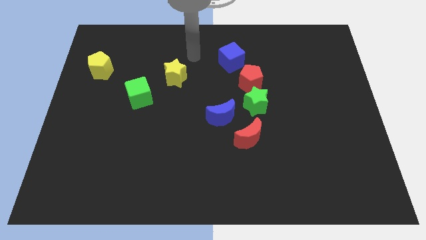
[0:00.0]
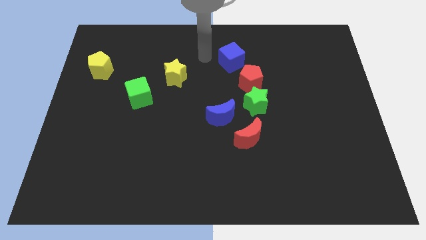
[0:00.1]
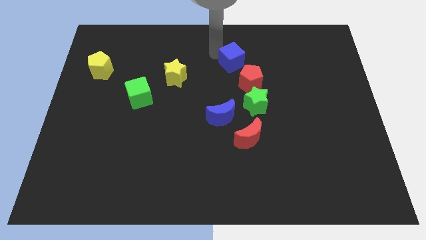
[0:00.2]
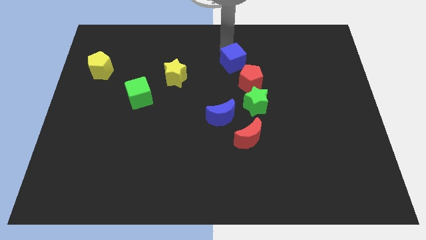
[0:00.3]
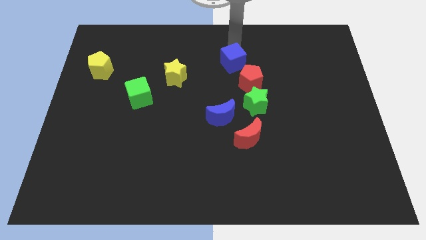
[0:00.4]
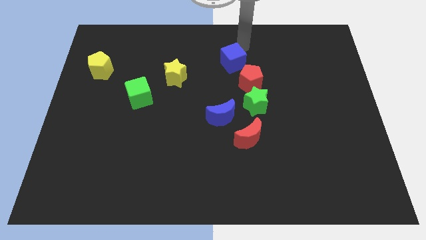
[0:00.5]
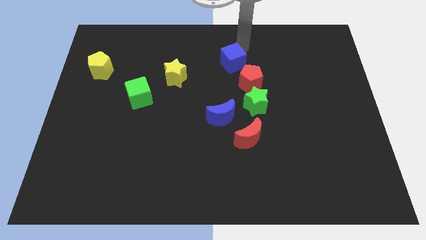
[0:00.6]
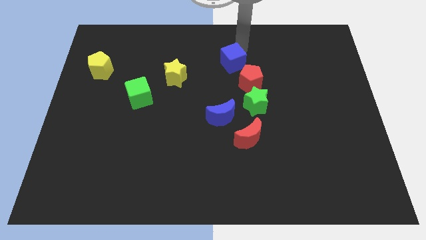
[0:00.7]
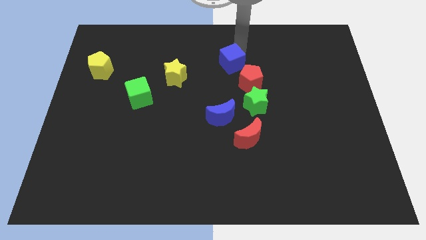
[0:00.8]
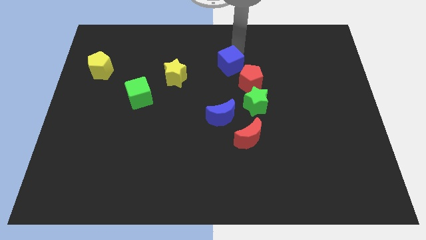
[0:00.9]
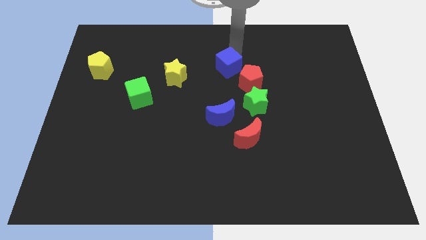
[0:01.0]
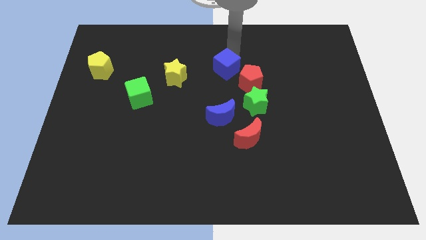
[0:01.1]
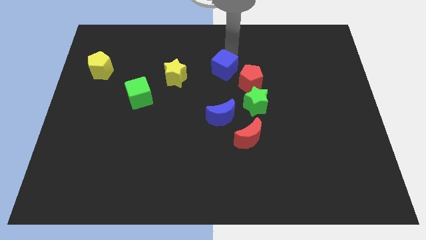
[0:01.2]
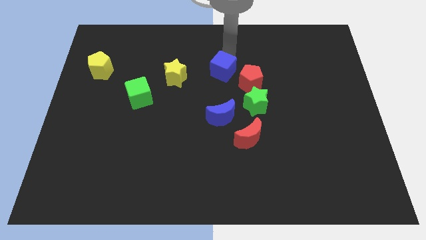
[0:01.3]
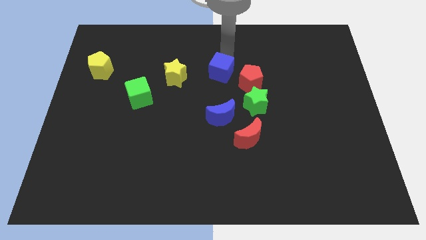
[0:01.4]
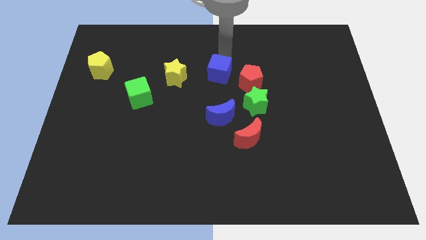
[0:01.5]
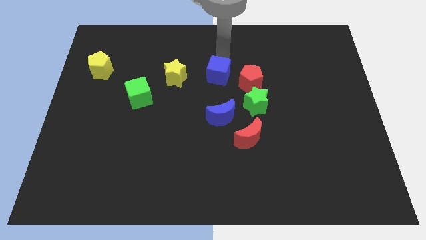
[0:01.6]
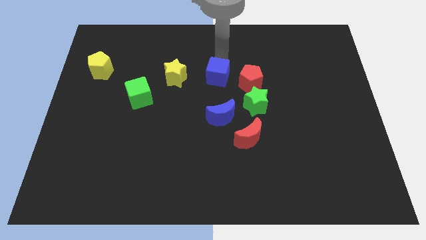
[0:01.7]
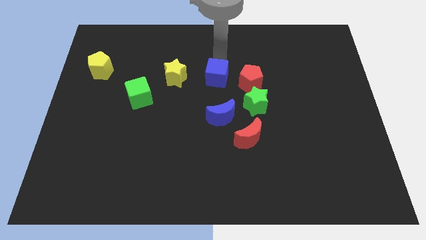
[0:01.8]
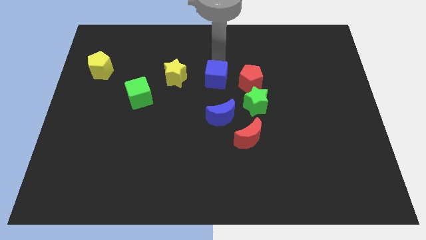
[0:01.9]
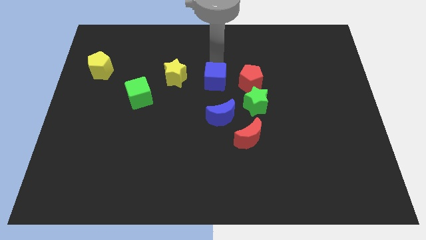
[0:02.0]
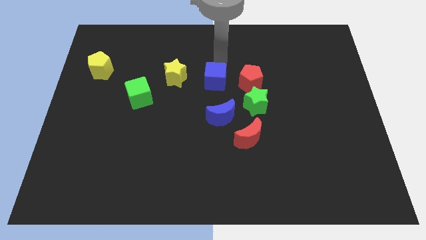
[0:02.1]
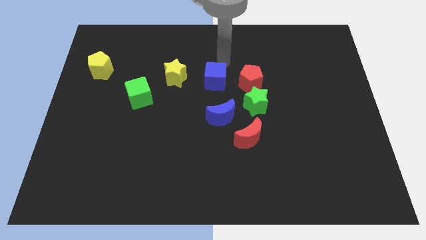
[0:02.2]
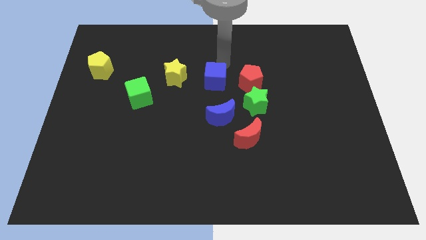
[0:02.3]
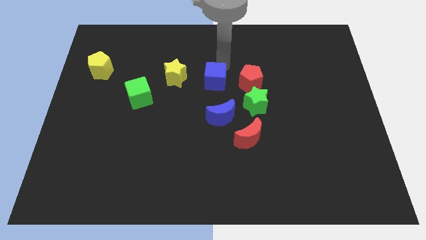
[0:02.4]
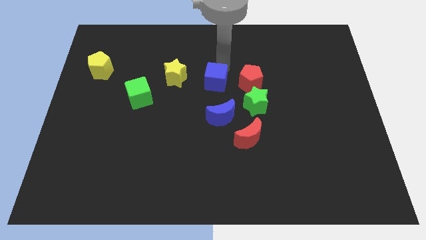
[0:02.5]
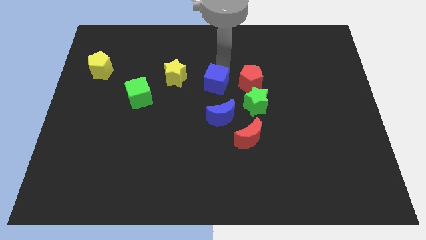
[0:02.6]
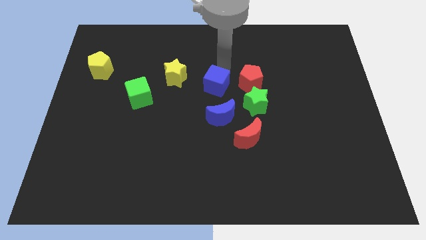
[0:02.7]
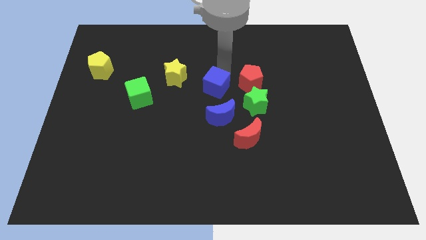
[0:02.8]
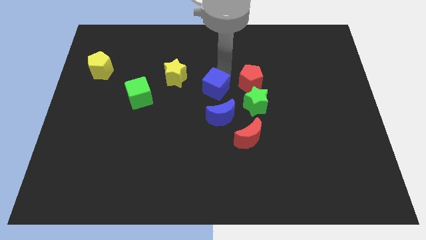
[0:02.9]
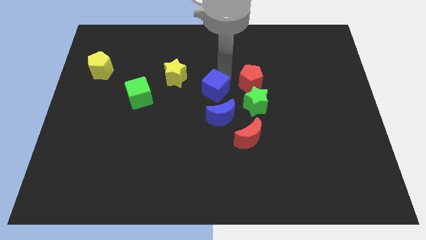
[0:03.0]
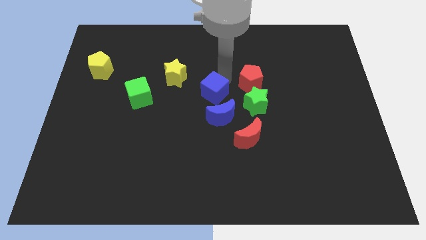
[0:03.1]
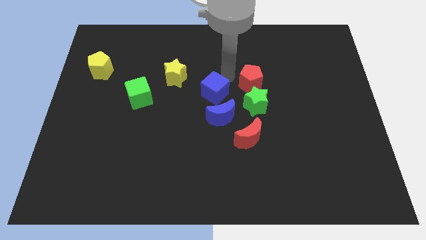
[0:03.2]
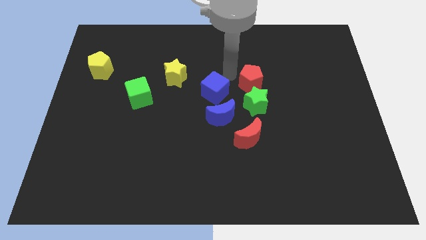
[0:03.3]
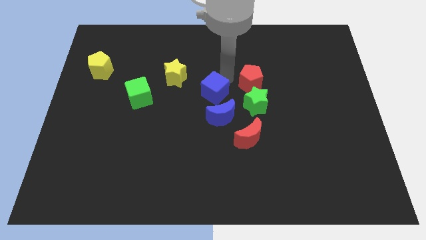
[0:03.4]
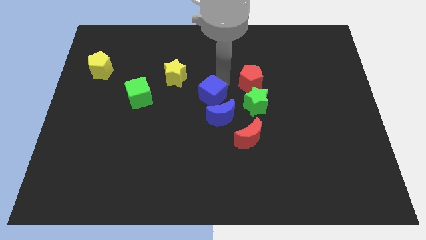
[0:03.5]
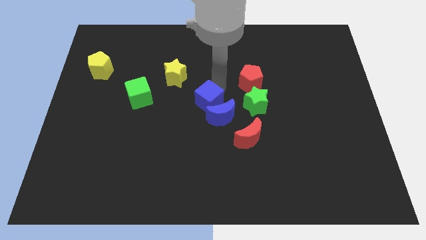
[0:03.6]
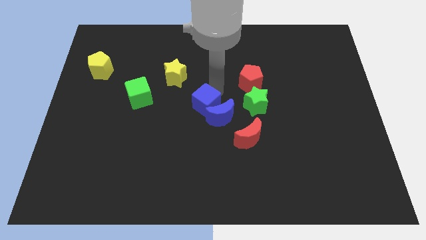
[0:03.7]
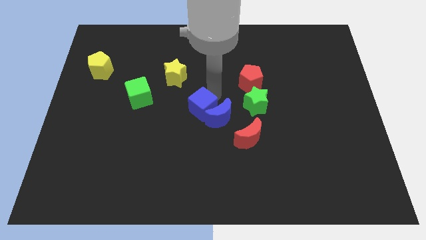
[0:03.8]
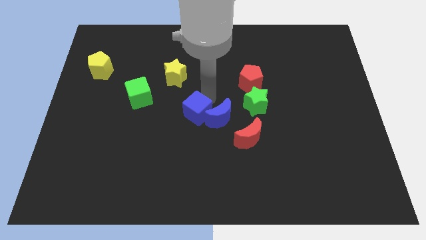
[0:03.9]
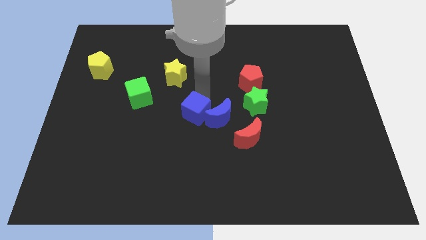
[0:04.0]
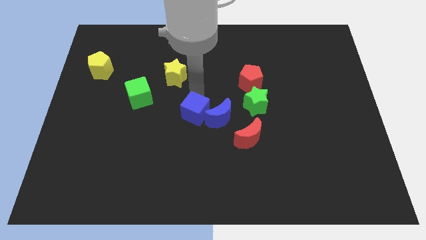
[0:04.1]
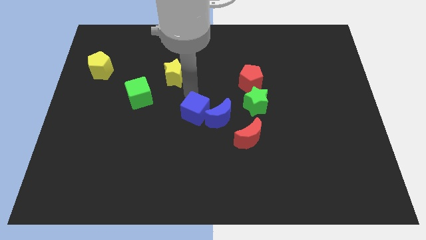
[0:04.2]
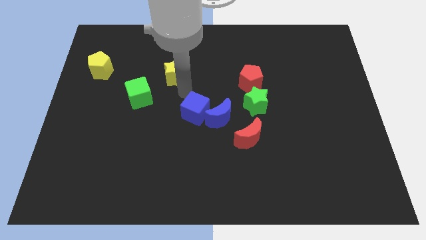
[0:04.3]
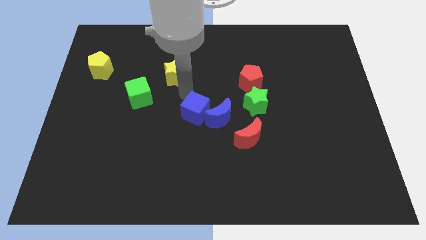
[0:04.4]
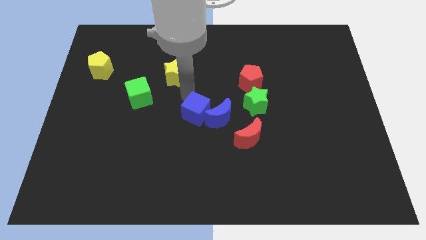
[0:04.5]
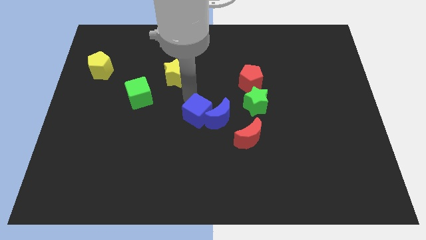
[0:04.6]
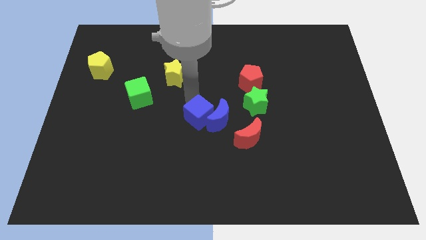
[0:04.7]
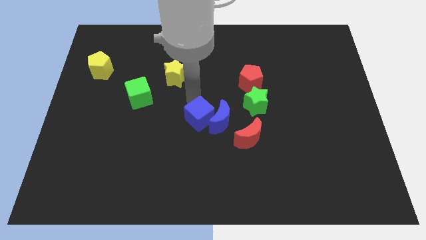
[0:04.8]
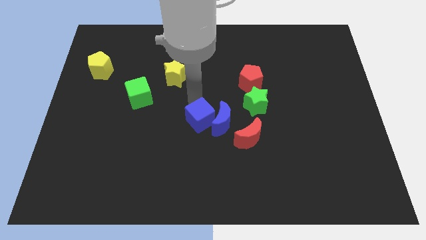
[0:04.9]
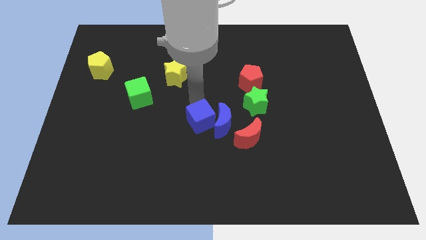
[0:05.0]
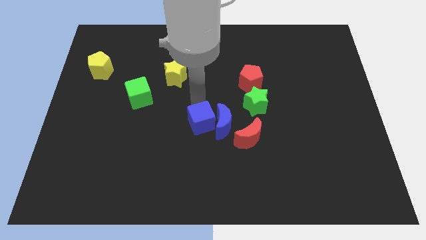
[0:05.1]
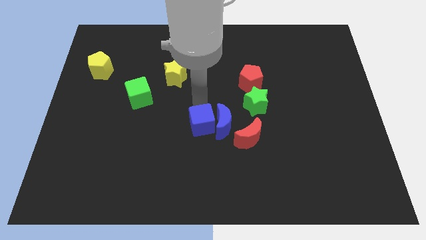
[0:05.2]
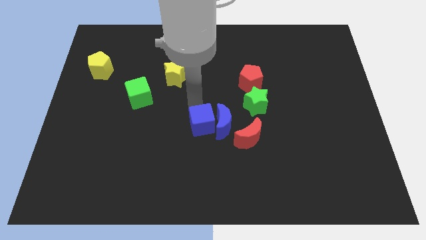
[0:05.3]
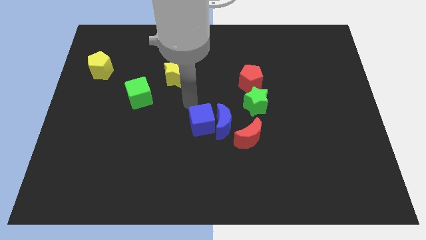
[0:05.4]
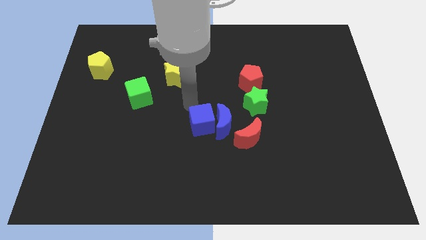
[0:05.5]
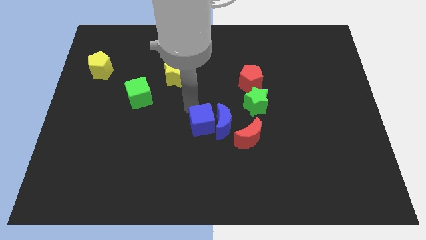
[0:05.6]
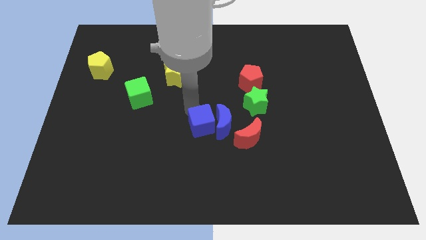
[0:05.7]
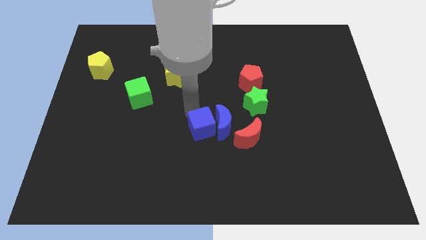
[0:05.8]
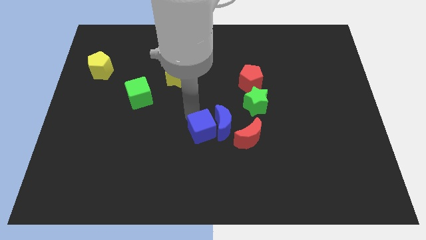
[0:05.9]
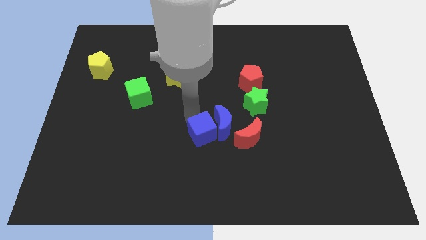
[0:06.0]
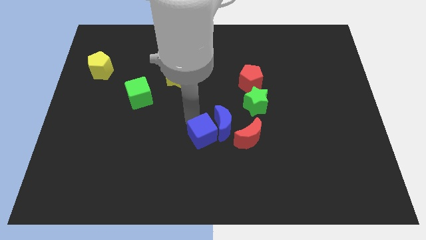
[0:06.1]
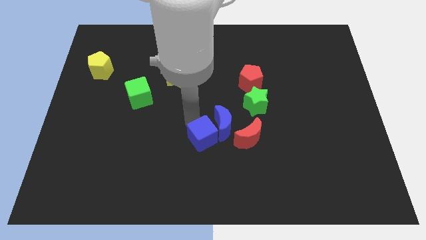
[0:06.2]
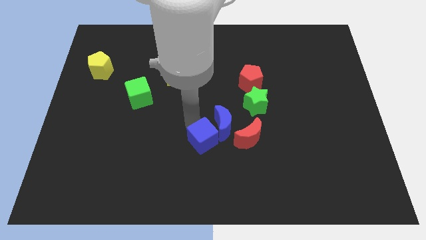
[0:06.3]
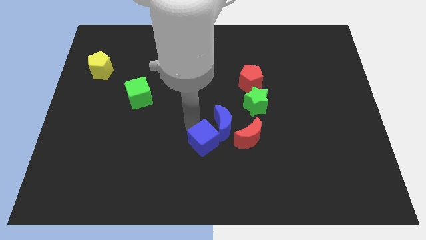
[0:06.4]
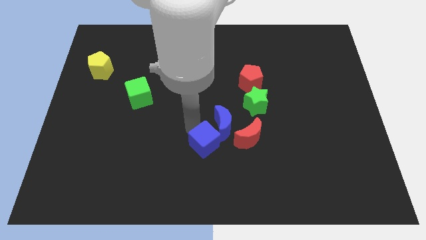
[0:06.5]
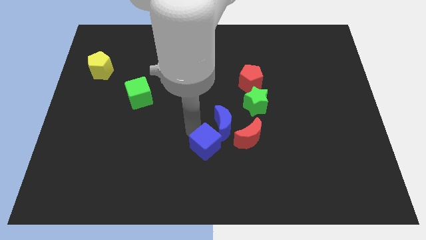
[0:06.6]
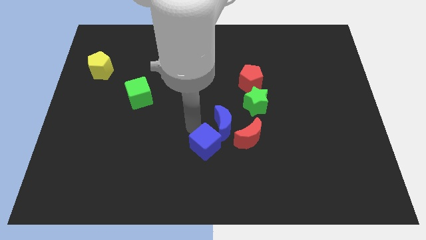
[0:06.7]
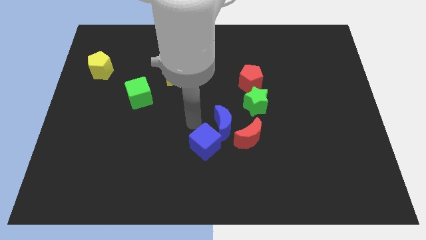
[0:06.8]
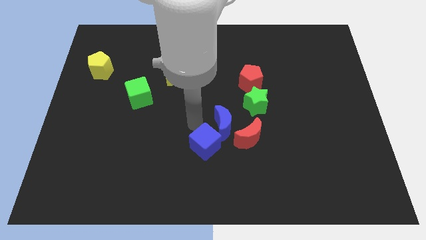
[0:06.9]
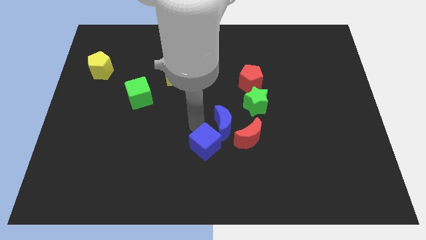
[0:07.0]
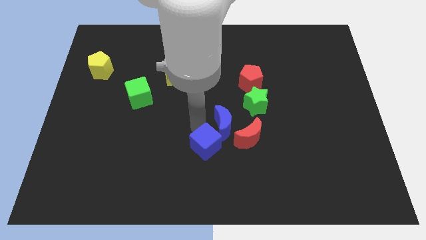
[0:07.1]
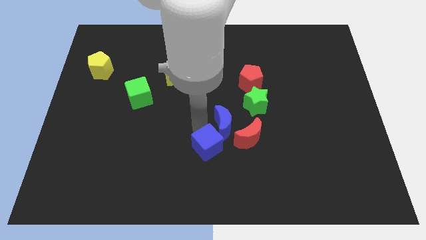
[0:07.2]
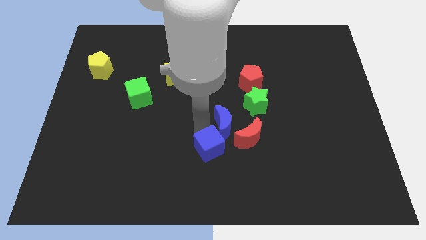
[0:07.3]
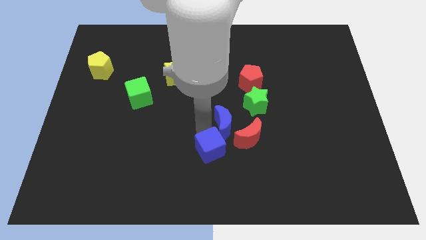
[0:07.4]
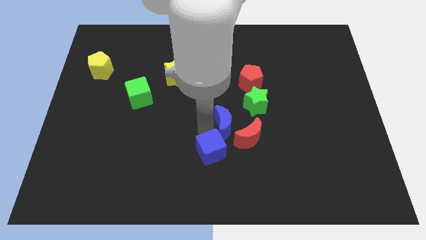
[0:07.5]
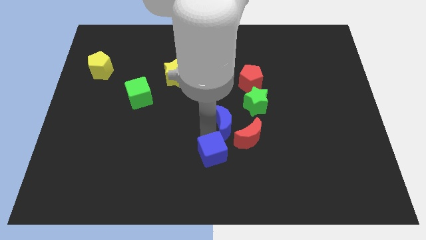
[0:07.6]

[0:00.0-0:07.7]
move the blue cube to the bottom side
